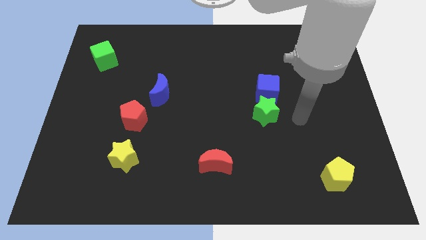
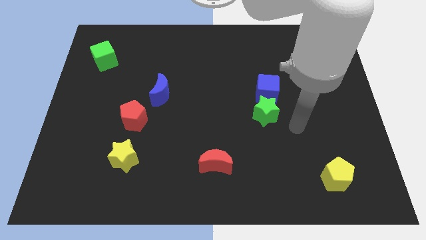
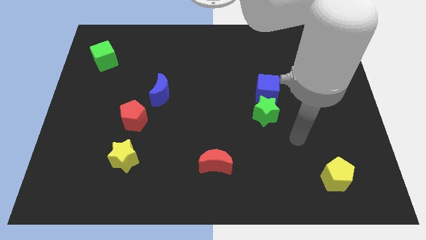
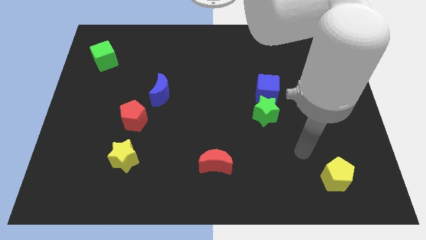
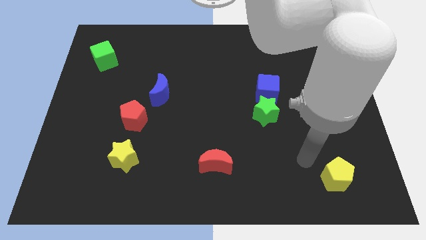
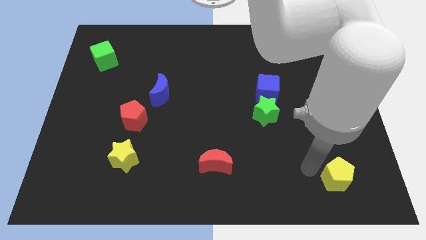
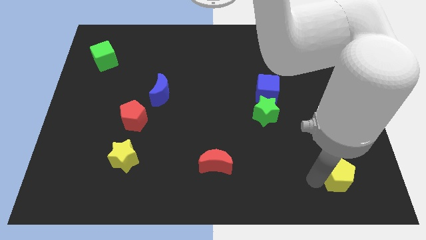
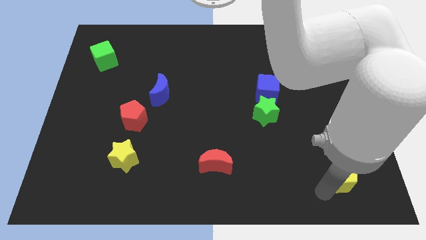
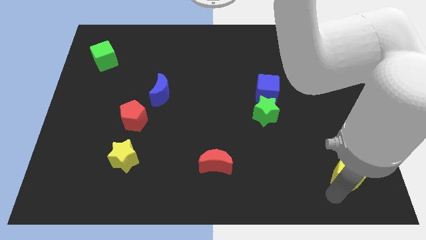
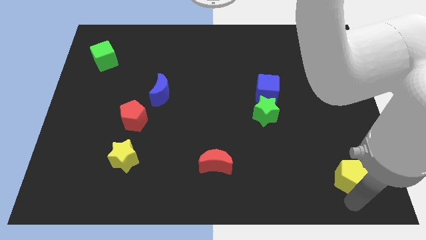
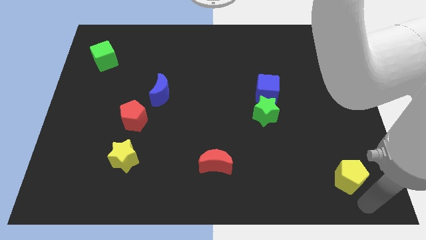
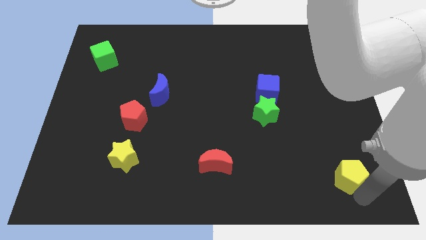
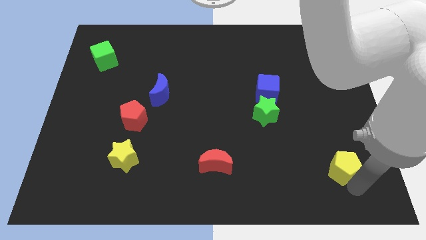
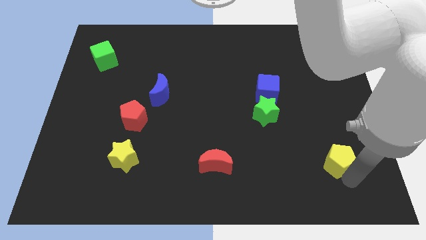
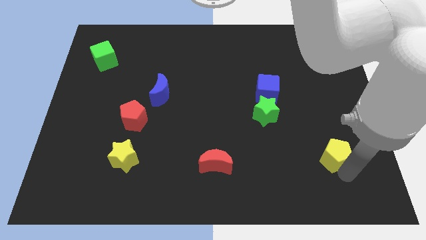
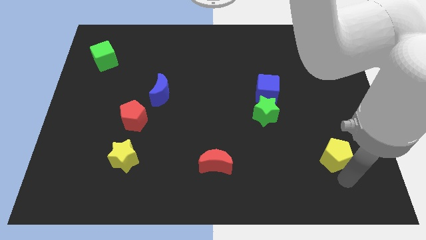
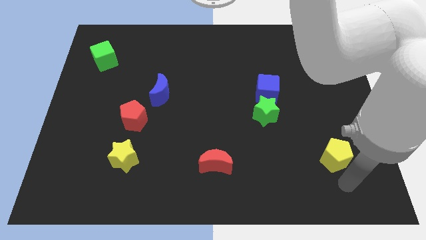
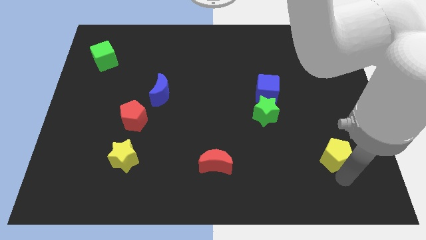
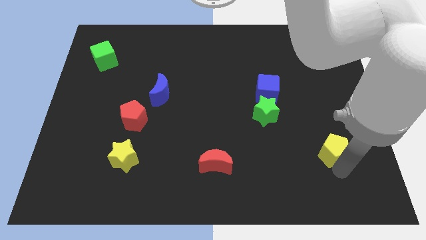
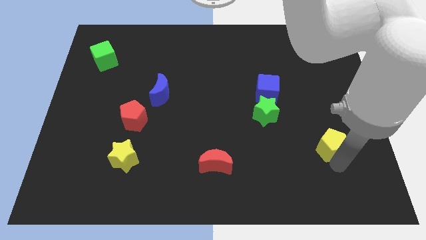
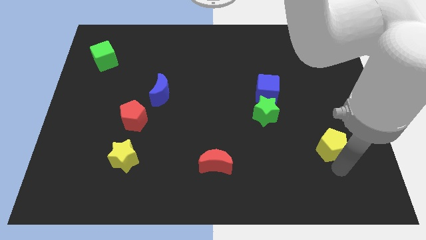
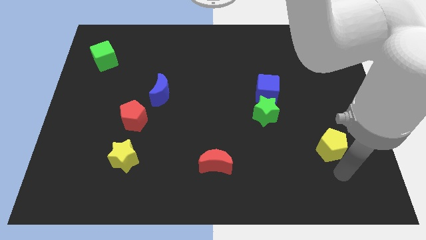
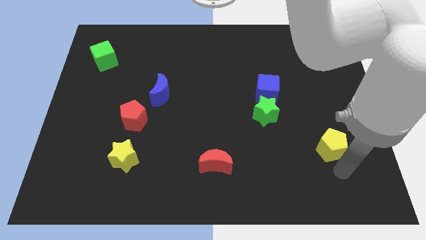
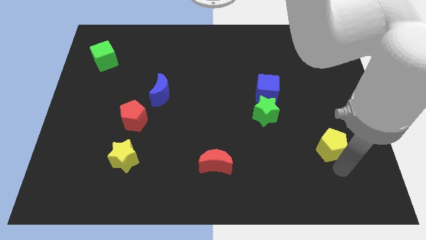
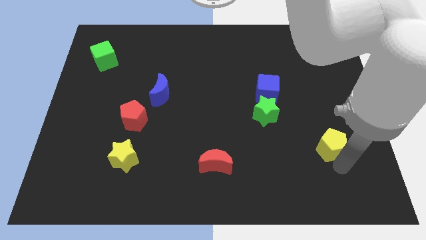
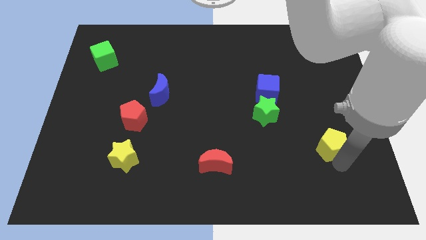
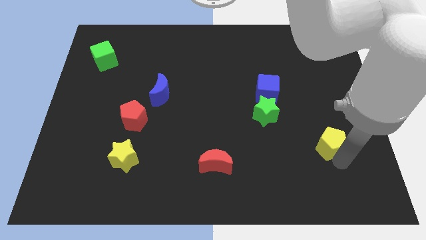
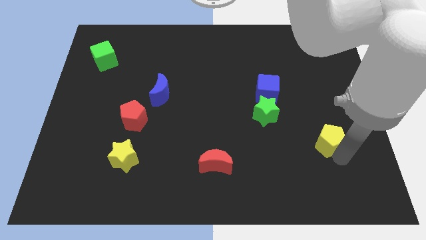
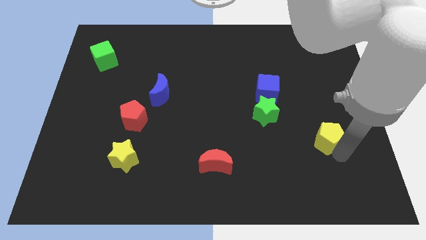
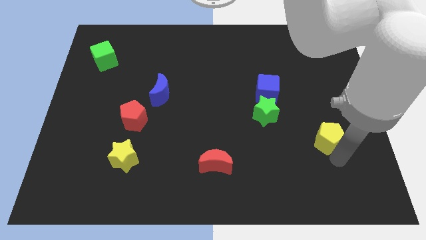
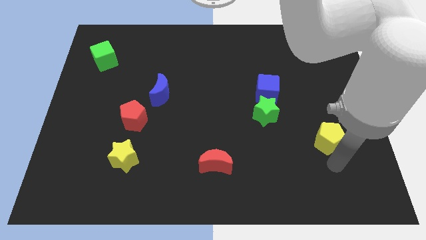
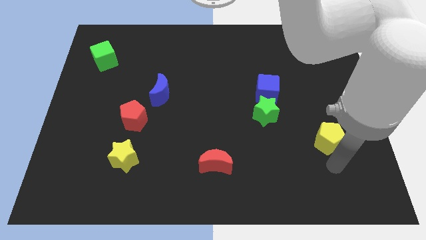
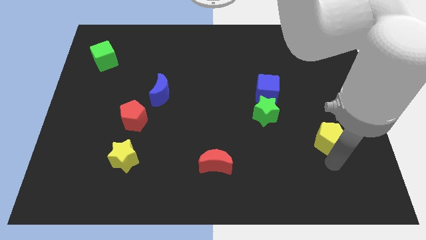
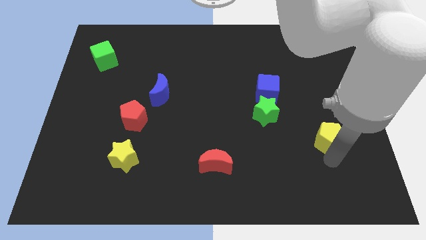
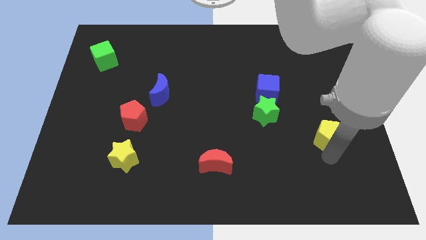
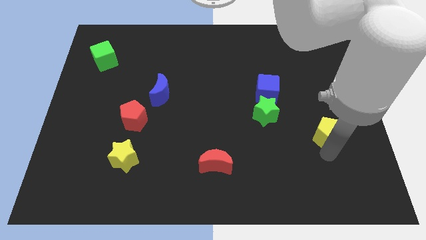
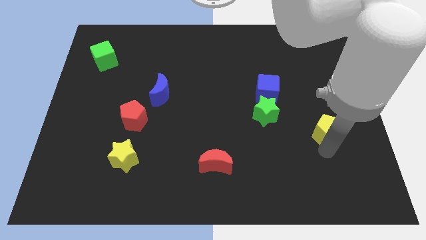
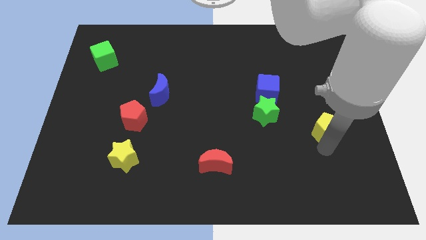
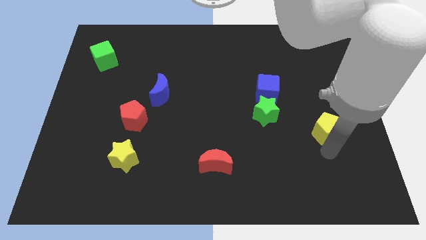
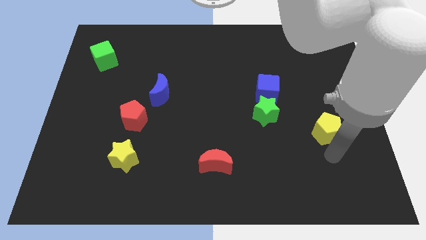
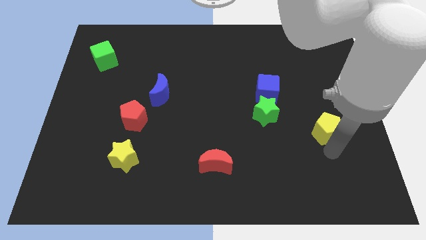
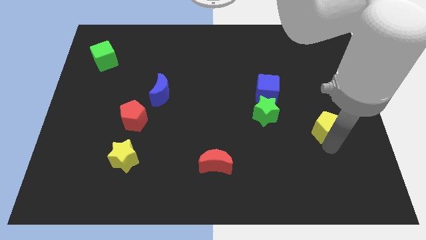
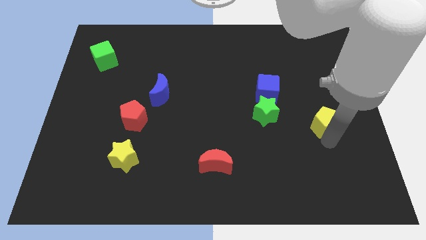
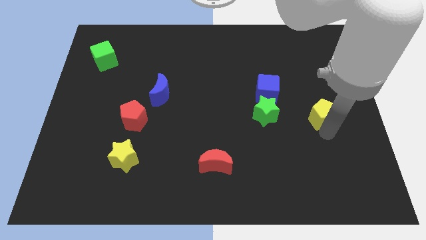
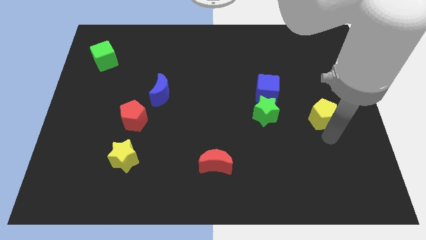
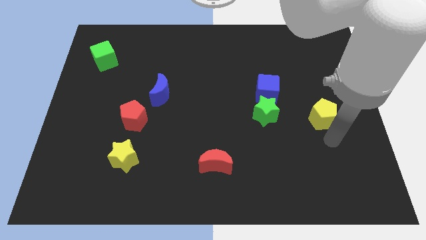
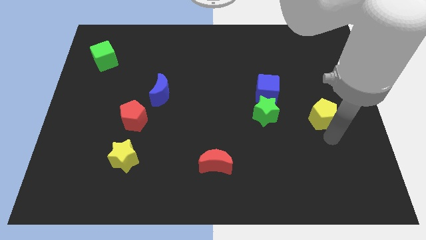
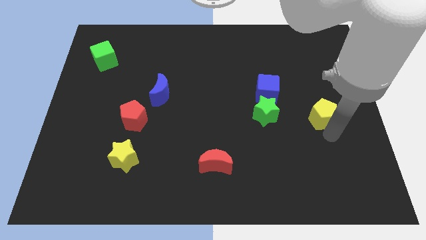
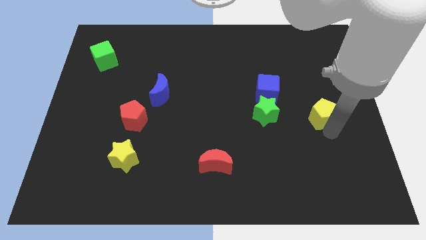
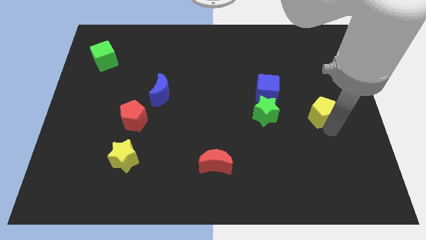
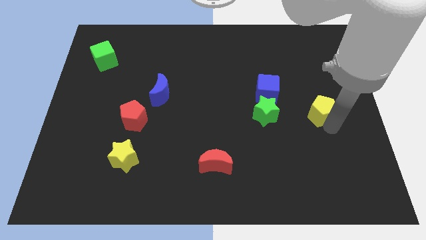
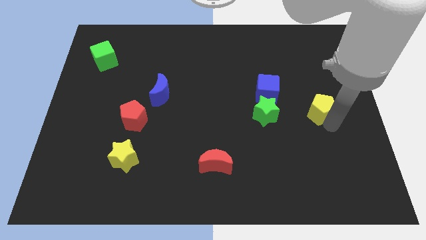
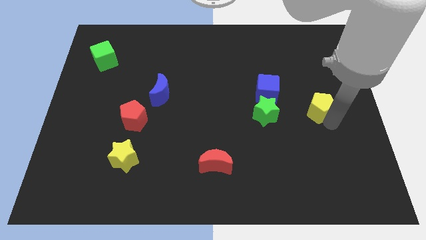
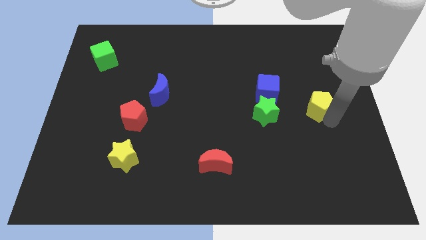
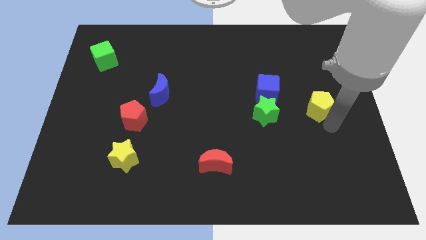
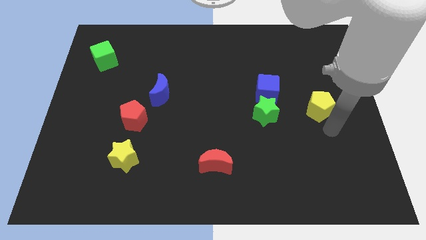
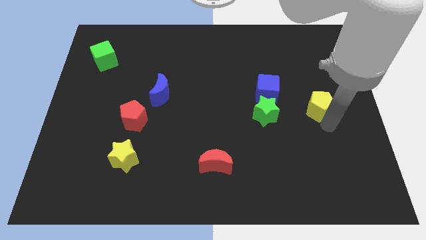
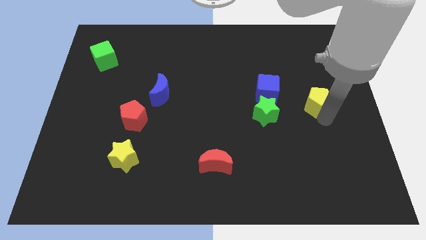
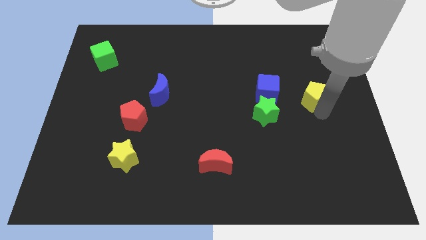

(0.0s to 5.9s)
move the yellow pentagon upwards

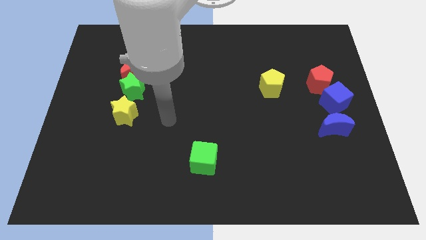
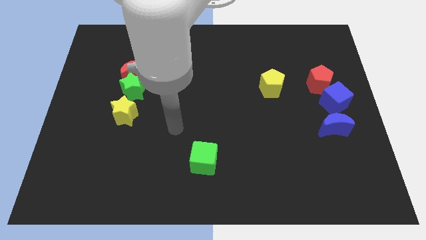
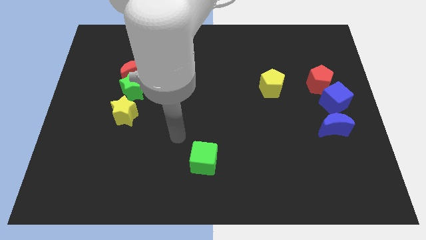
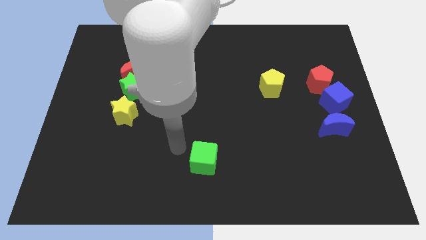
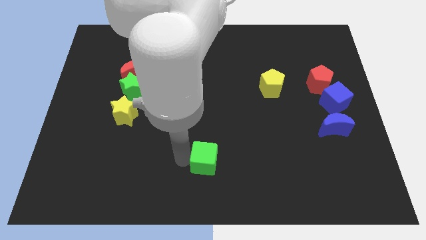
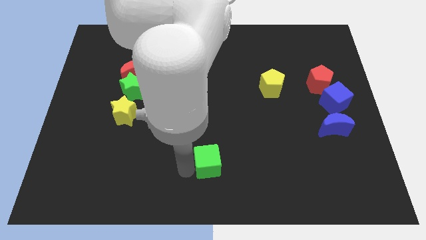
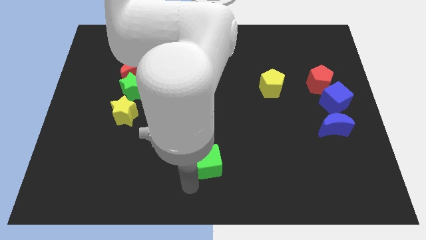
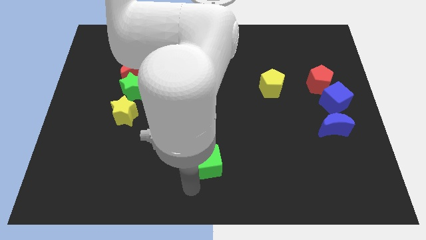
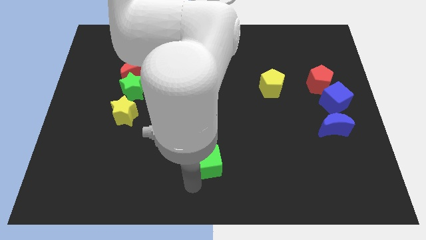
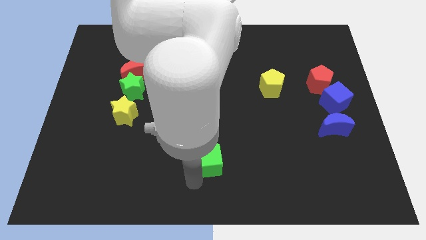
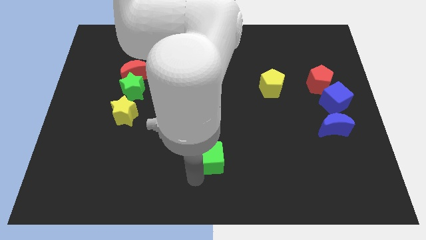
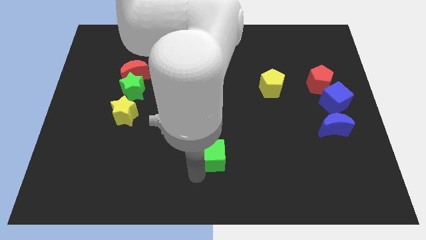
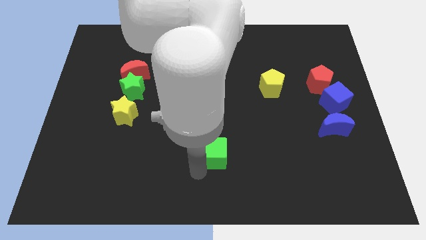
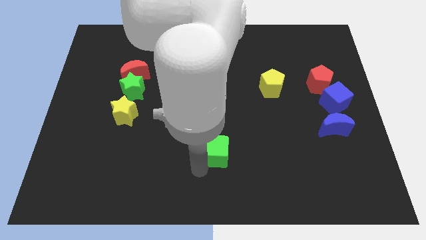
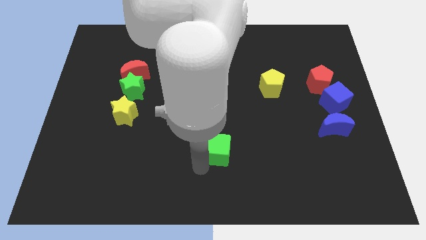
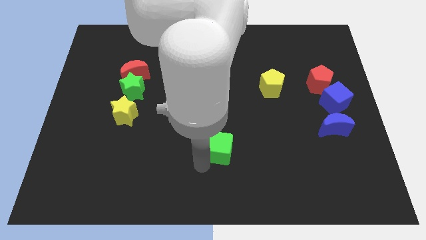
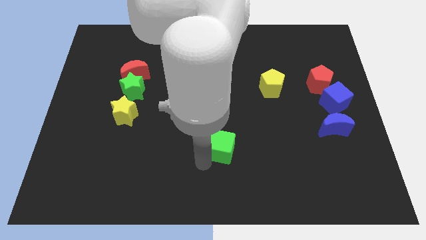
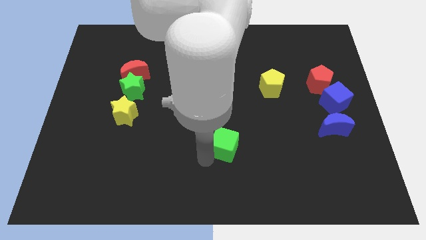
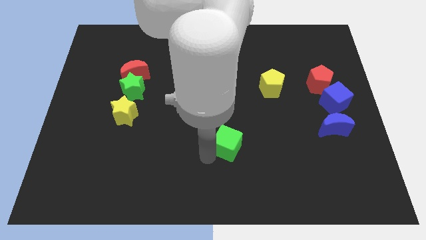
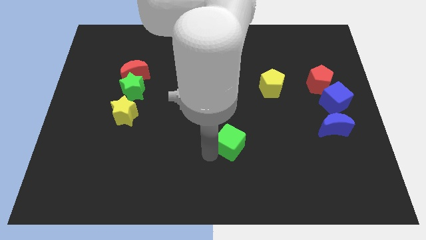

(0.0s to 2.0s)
slide the green cube a little bit diagonally upwards and right
